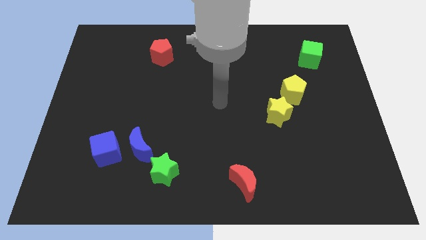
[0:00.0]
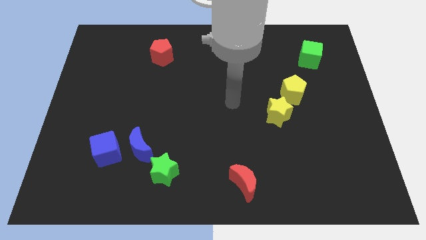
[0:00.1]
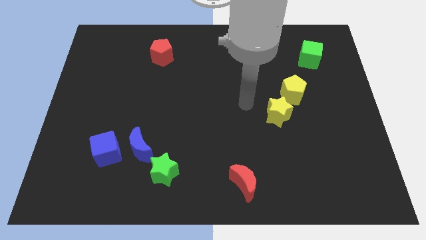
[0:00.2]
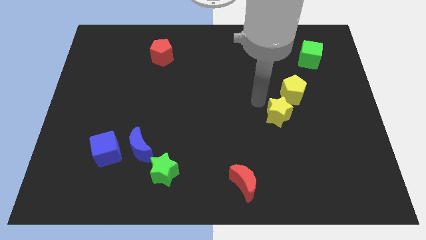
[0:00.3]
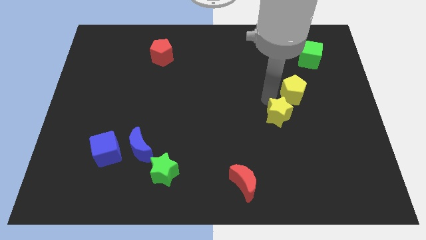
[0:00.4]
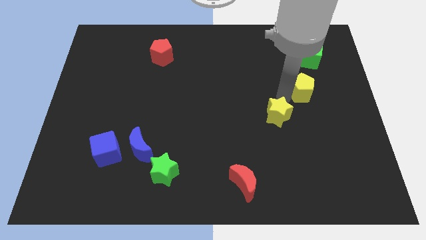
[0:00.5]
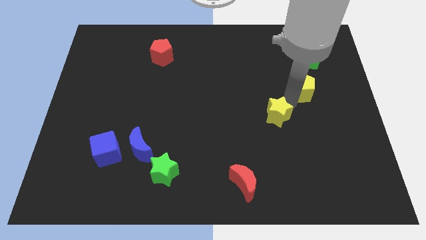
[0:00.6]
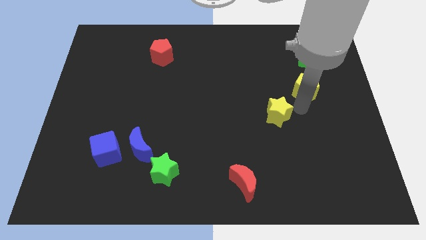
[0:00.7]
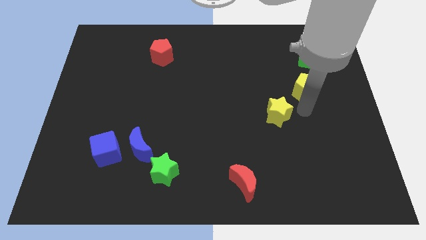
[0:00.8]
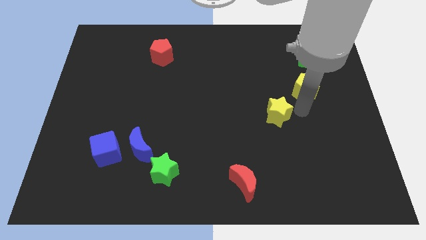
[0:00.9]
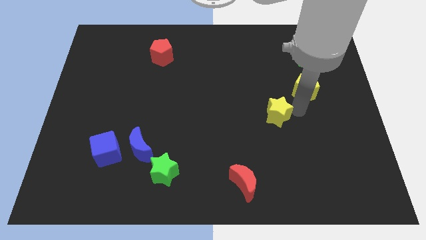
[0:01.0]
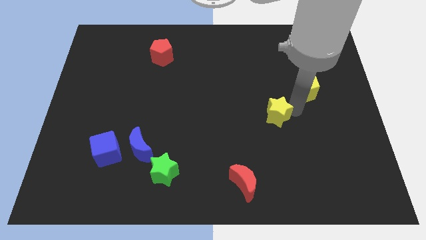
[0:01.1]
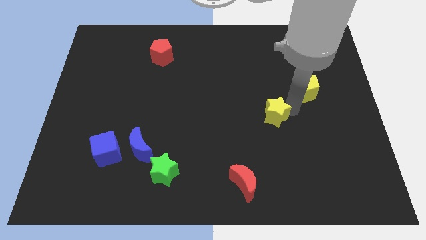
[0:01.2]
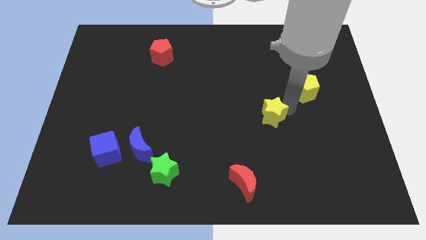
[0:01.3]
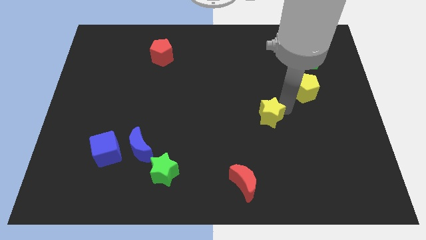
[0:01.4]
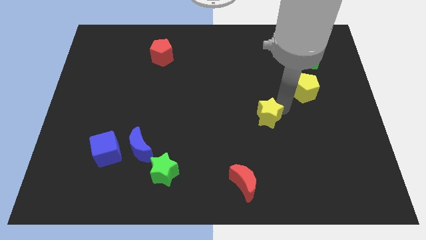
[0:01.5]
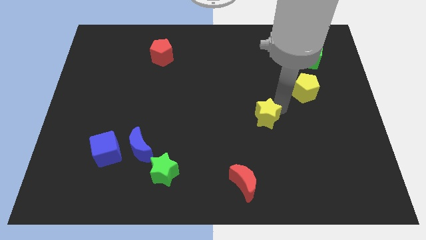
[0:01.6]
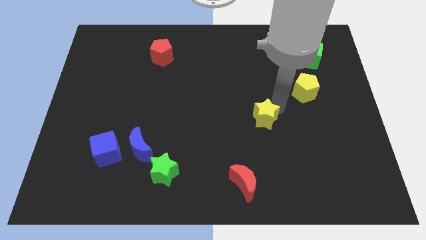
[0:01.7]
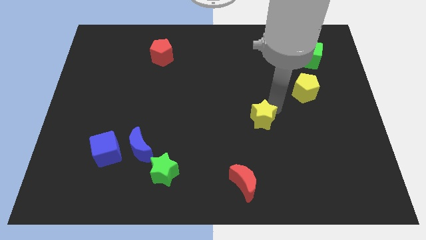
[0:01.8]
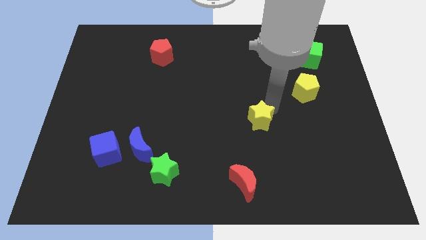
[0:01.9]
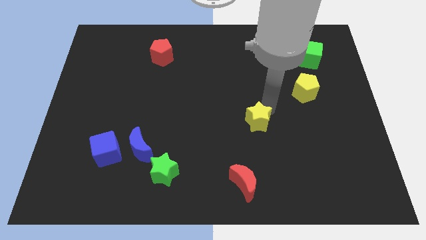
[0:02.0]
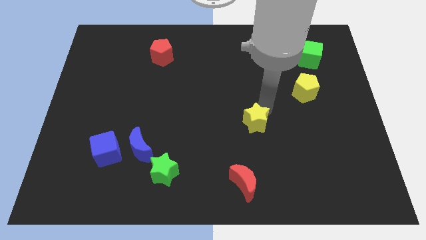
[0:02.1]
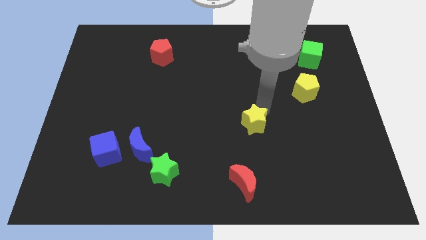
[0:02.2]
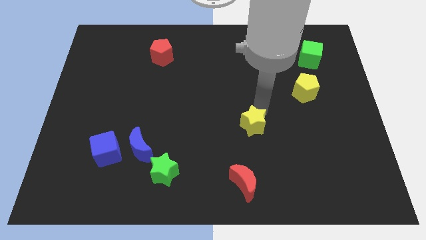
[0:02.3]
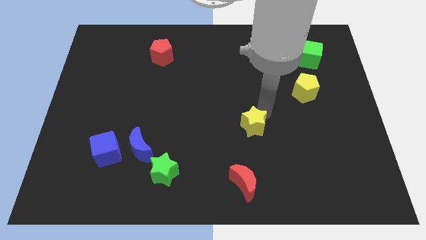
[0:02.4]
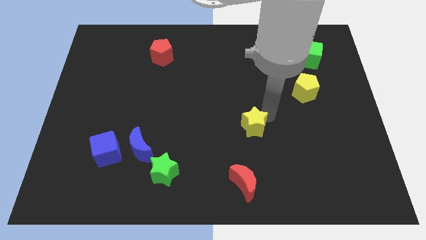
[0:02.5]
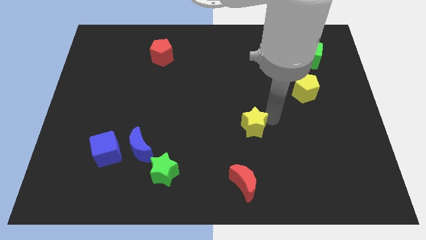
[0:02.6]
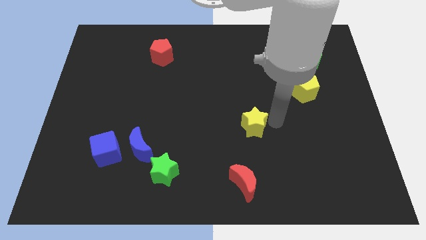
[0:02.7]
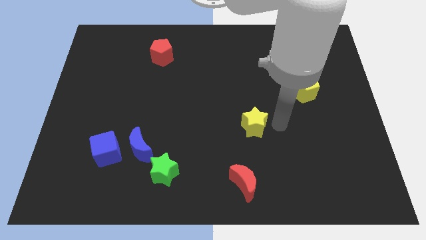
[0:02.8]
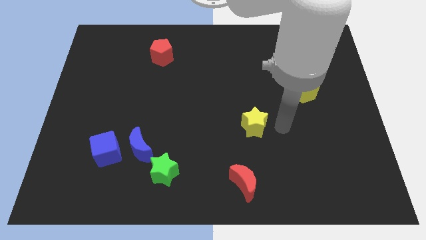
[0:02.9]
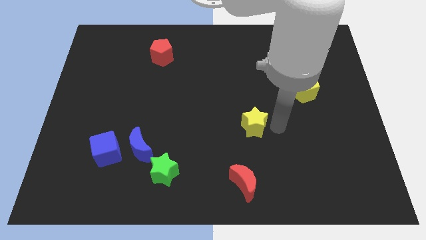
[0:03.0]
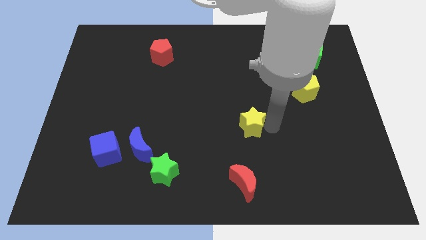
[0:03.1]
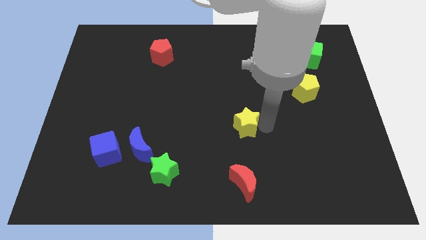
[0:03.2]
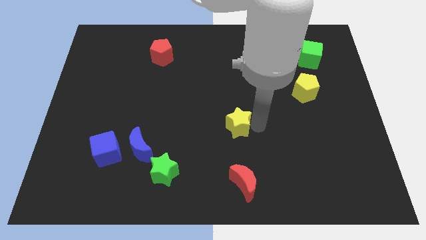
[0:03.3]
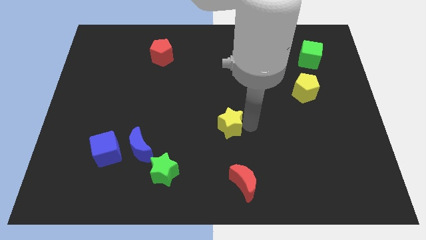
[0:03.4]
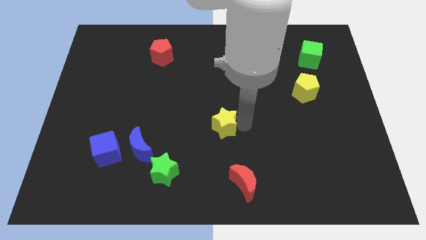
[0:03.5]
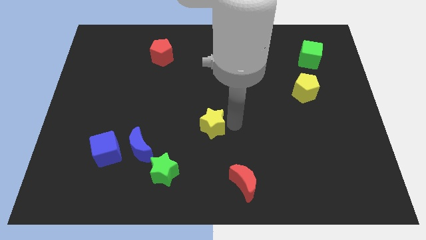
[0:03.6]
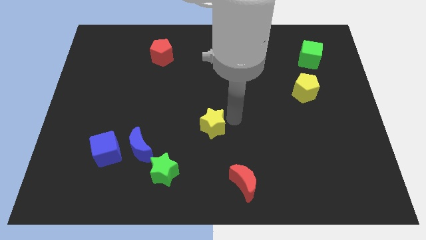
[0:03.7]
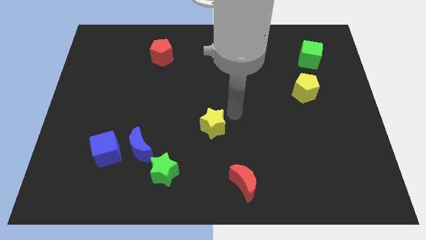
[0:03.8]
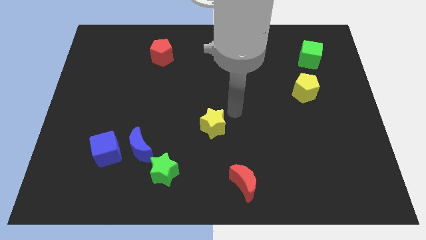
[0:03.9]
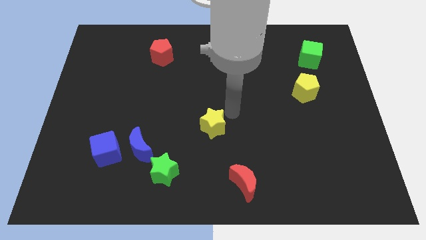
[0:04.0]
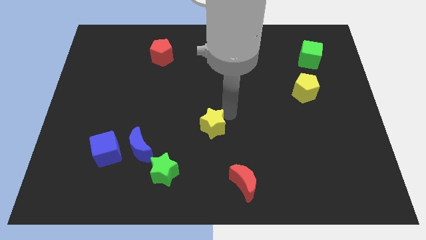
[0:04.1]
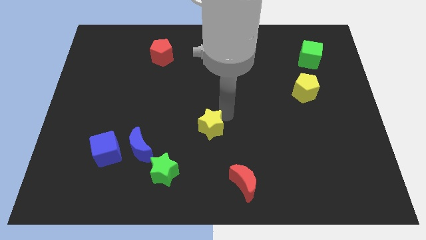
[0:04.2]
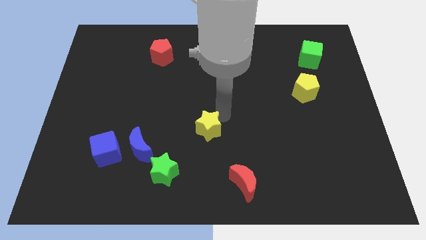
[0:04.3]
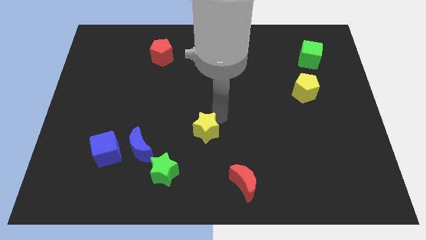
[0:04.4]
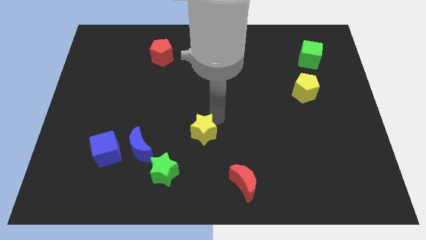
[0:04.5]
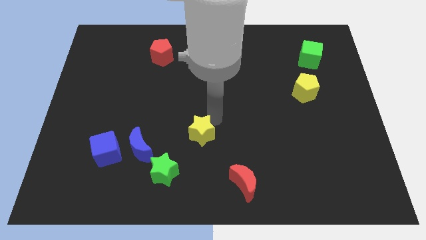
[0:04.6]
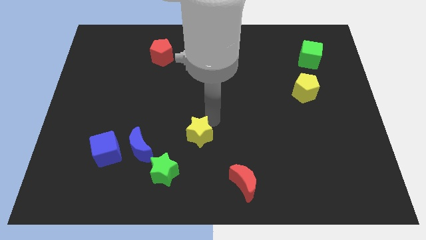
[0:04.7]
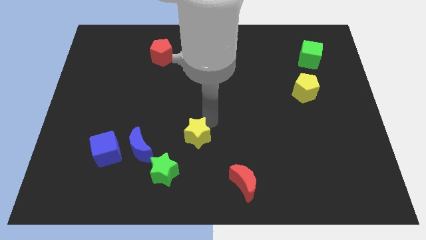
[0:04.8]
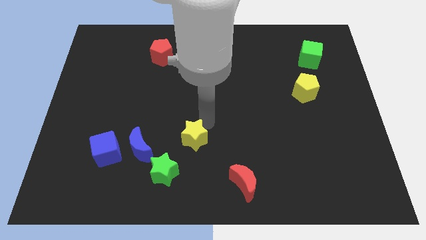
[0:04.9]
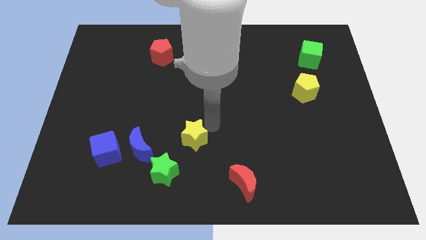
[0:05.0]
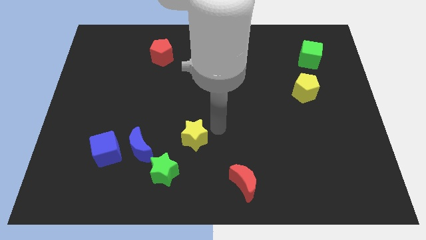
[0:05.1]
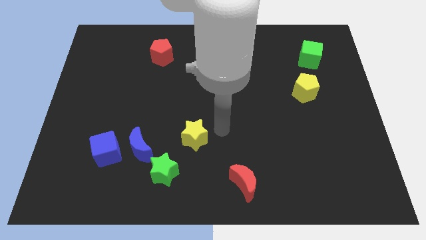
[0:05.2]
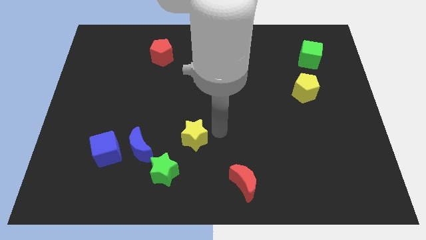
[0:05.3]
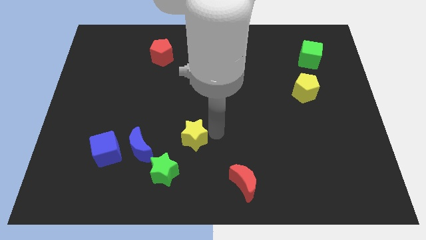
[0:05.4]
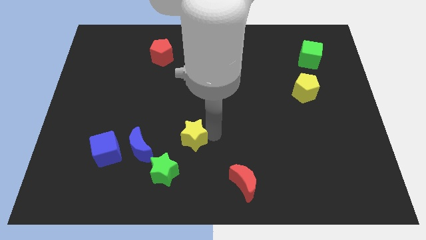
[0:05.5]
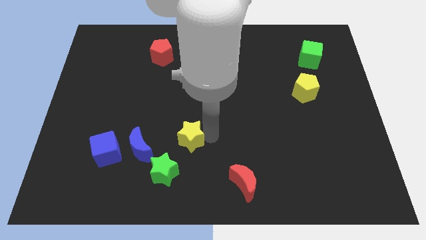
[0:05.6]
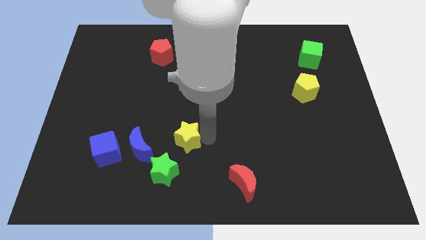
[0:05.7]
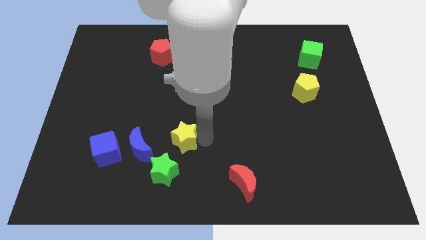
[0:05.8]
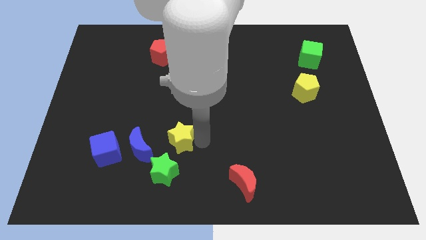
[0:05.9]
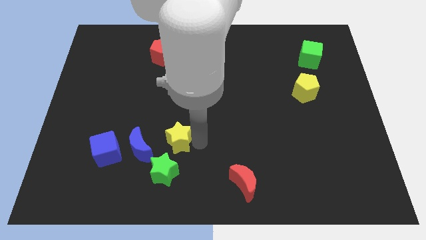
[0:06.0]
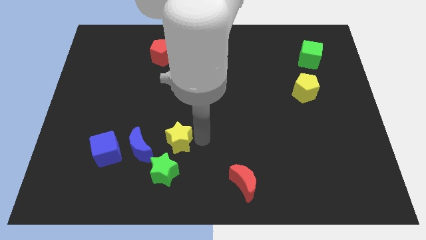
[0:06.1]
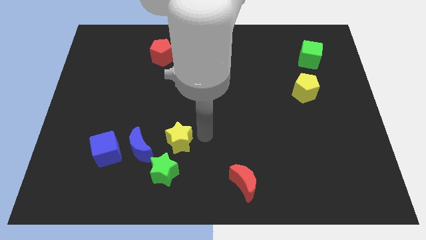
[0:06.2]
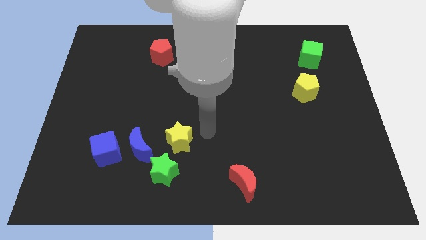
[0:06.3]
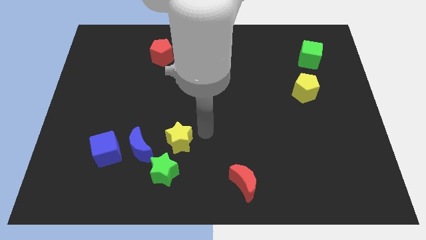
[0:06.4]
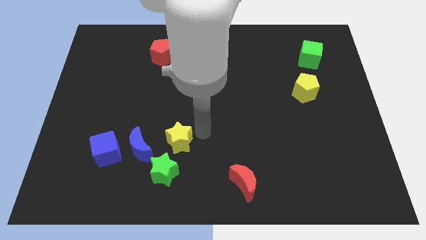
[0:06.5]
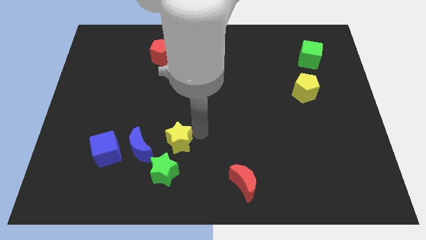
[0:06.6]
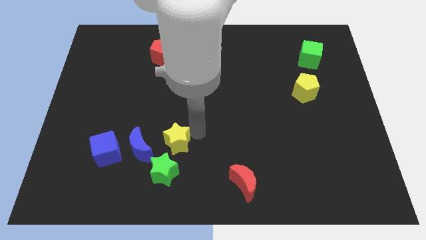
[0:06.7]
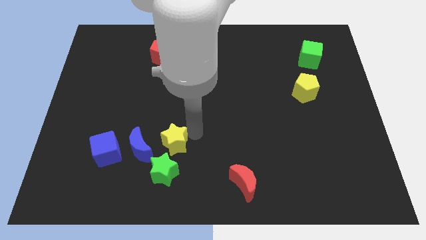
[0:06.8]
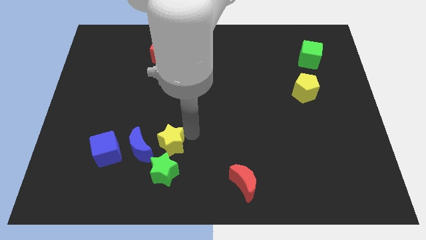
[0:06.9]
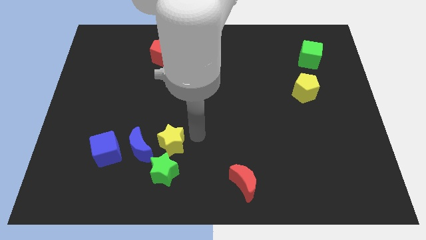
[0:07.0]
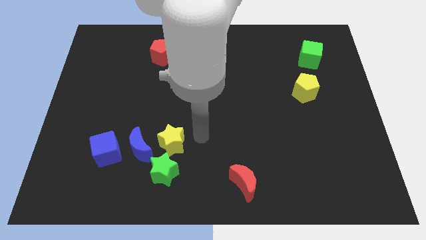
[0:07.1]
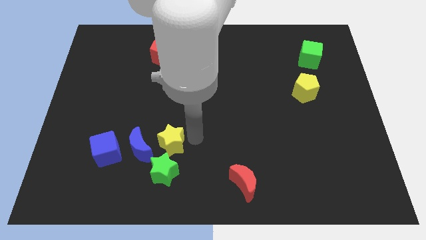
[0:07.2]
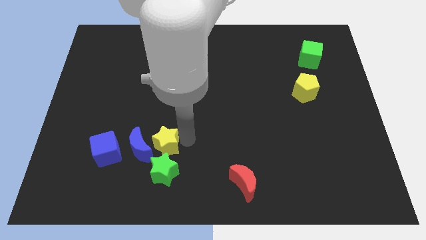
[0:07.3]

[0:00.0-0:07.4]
move the yellow star next to the blue moon

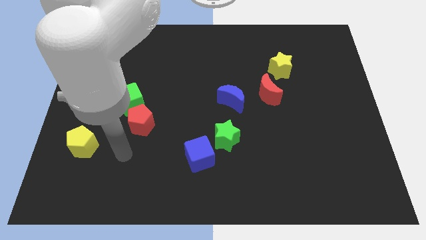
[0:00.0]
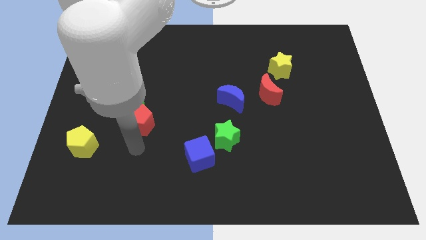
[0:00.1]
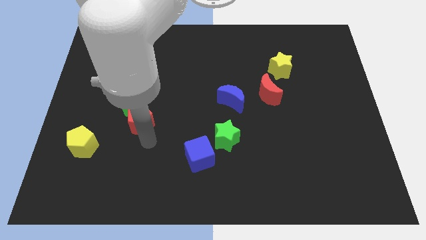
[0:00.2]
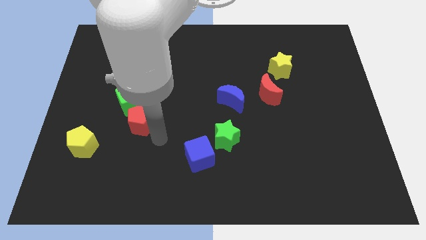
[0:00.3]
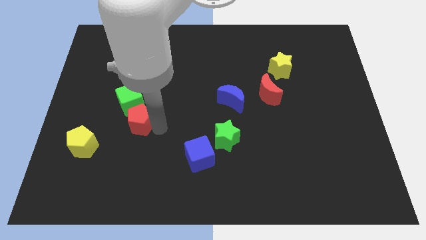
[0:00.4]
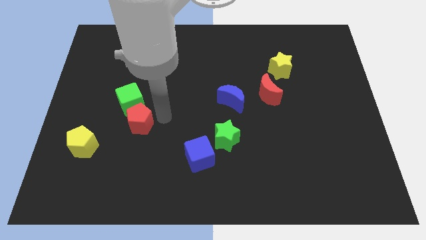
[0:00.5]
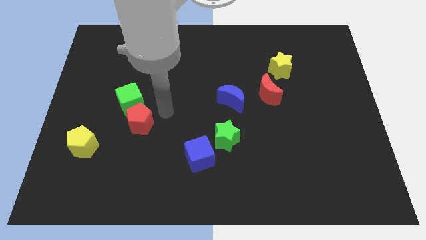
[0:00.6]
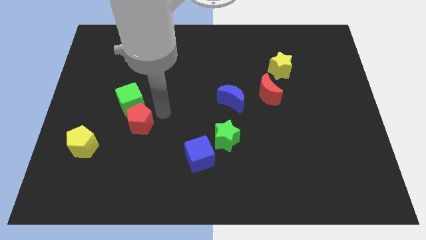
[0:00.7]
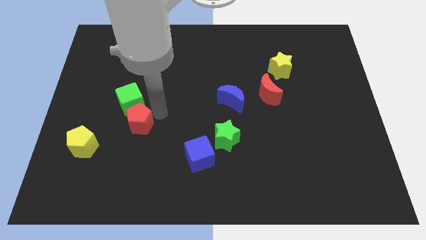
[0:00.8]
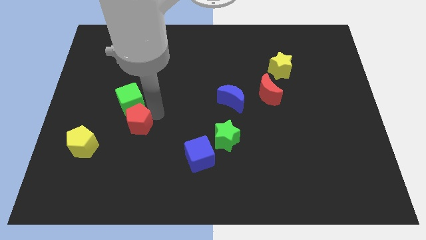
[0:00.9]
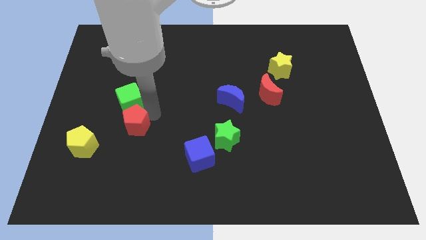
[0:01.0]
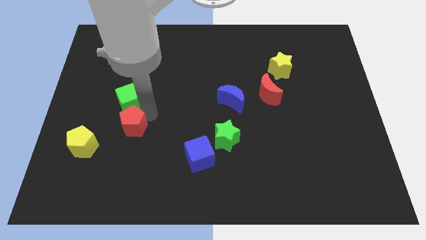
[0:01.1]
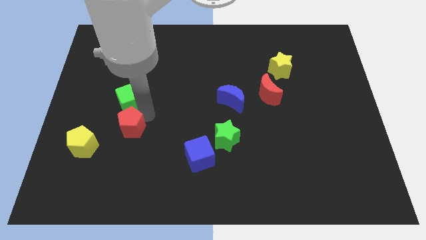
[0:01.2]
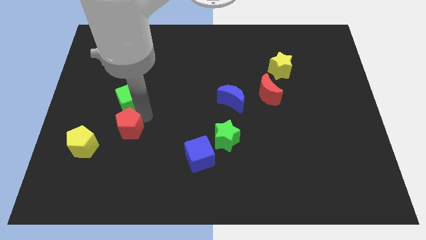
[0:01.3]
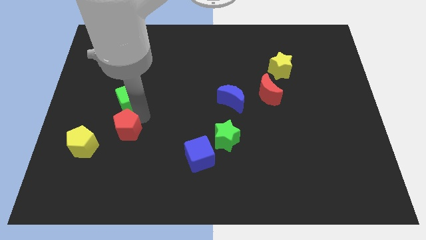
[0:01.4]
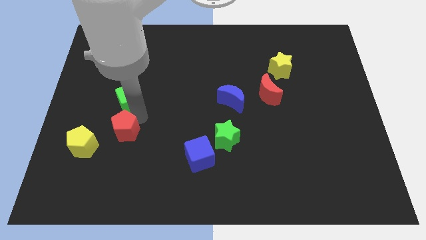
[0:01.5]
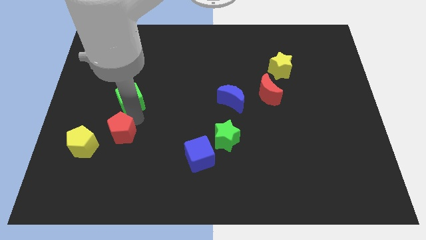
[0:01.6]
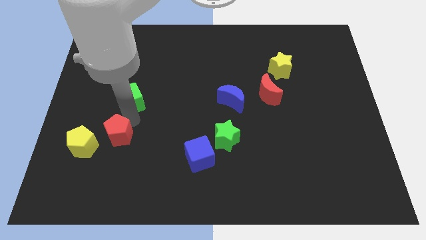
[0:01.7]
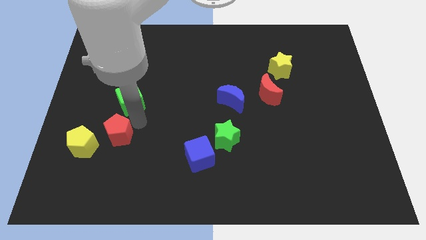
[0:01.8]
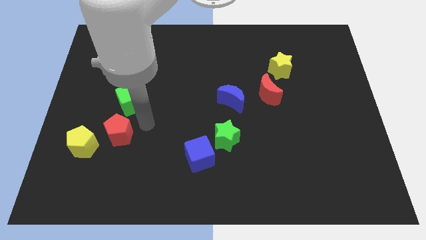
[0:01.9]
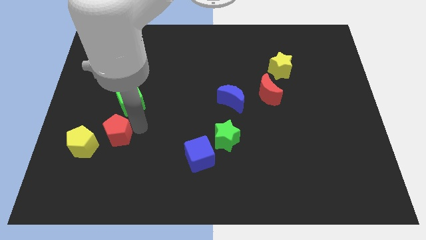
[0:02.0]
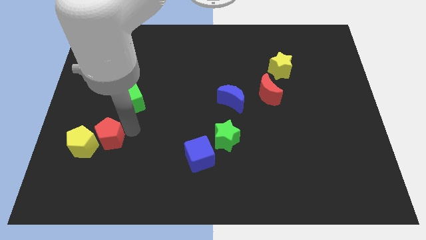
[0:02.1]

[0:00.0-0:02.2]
slide the red pentagon next to the yellow pentagon
